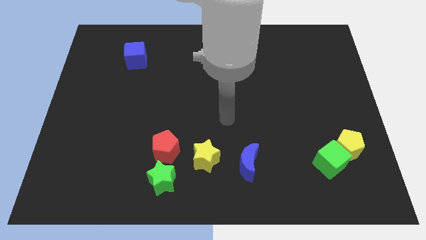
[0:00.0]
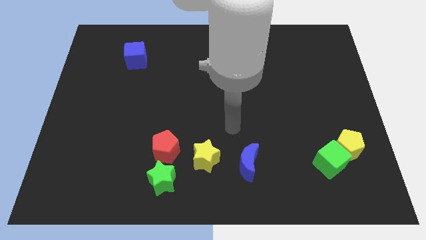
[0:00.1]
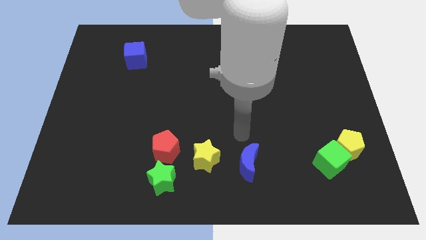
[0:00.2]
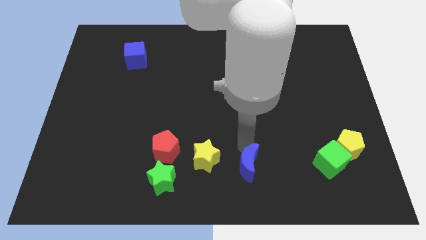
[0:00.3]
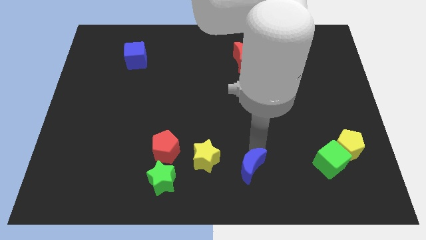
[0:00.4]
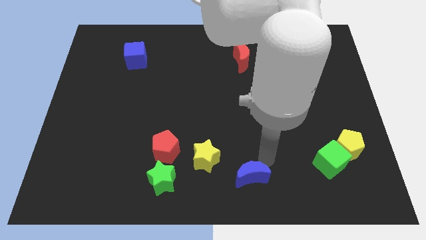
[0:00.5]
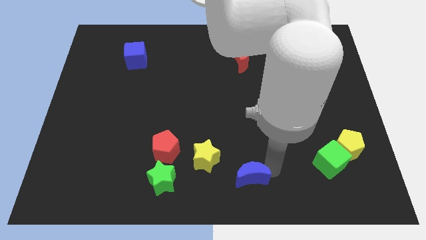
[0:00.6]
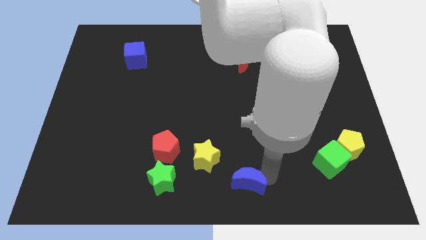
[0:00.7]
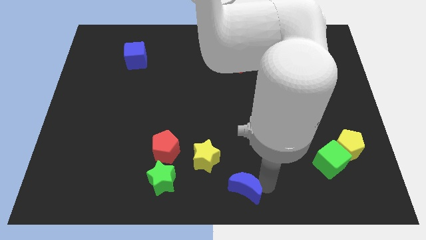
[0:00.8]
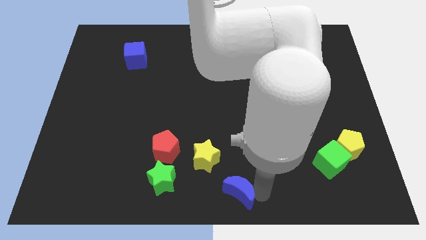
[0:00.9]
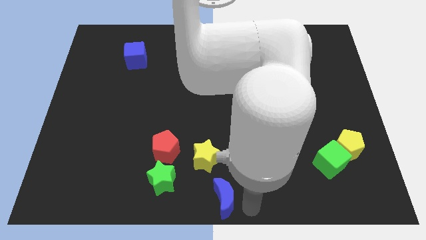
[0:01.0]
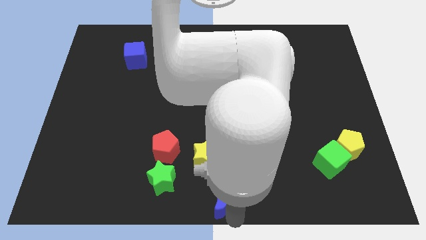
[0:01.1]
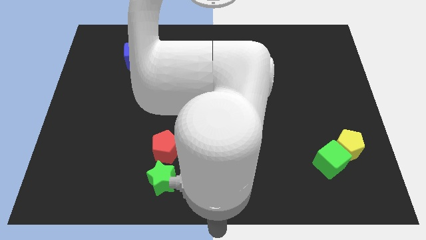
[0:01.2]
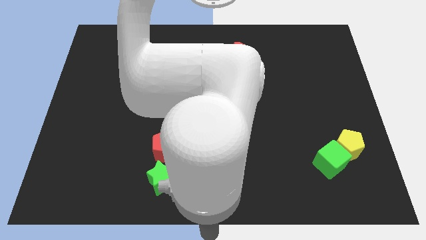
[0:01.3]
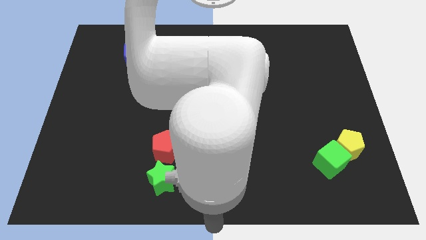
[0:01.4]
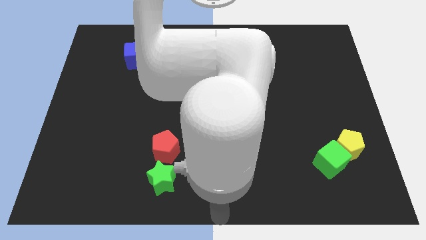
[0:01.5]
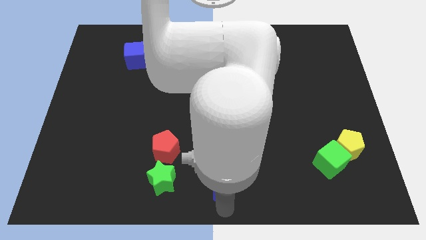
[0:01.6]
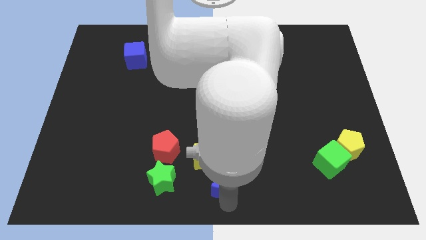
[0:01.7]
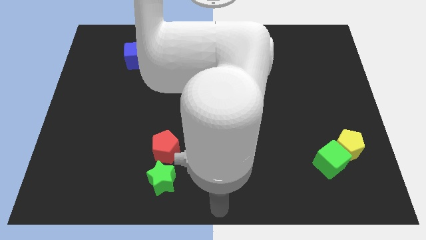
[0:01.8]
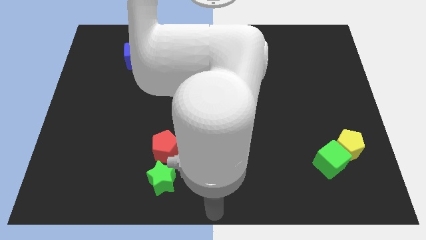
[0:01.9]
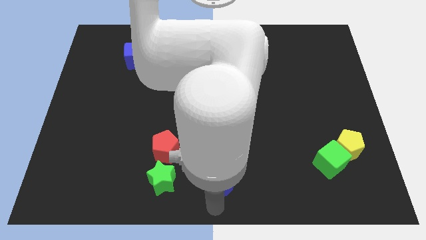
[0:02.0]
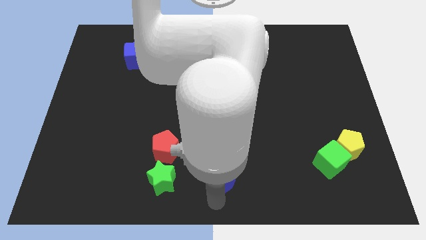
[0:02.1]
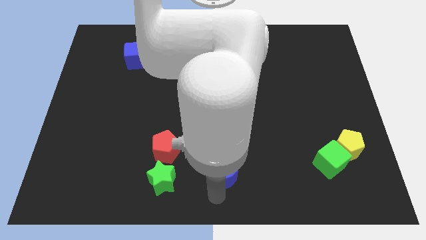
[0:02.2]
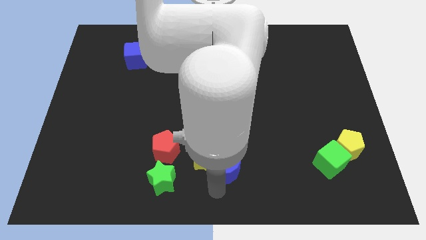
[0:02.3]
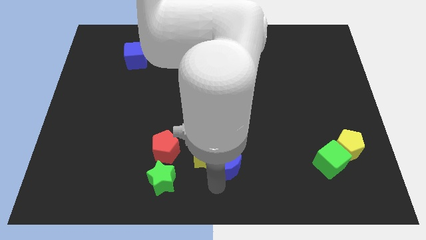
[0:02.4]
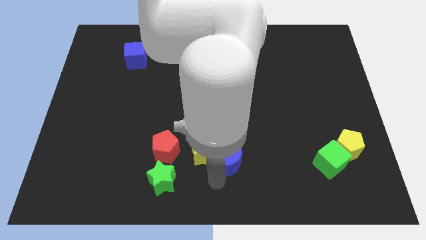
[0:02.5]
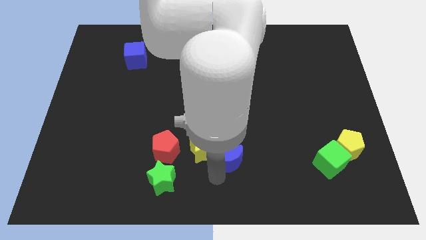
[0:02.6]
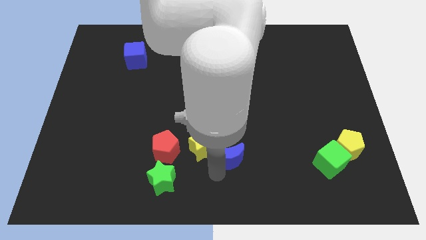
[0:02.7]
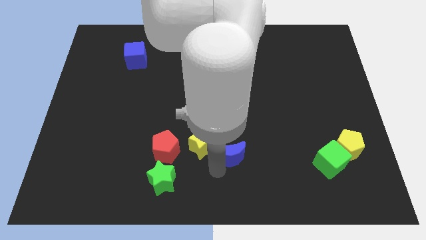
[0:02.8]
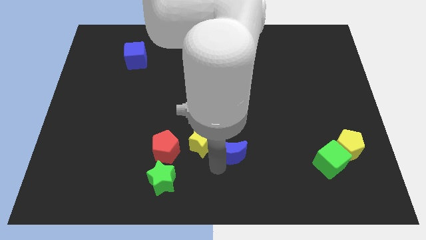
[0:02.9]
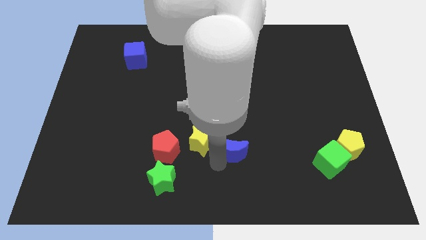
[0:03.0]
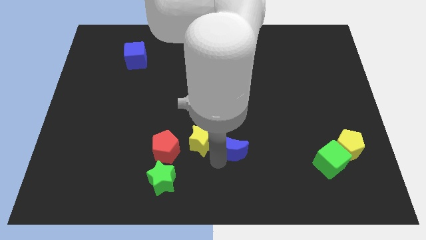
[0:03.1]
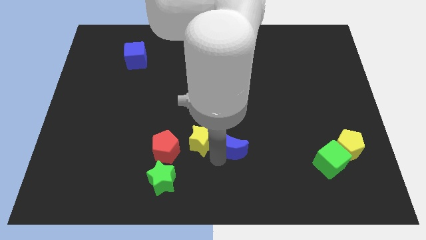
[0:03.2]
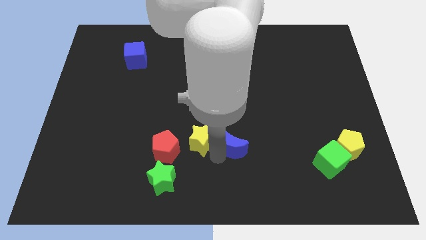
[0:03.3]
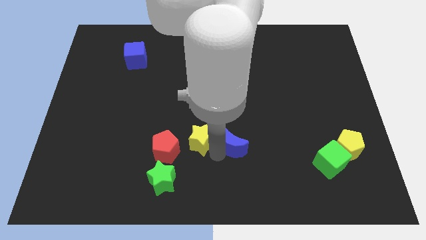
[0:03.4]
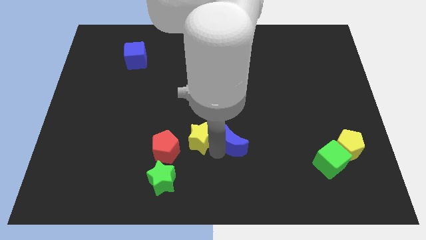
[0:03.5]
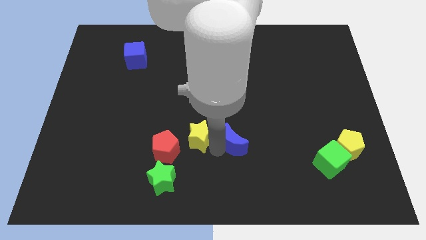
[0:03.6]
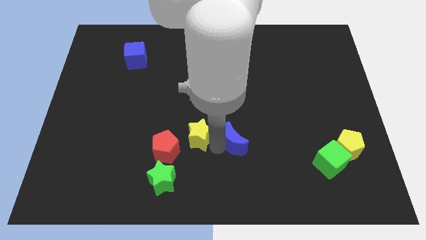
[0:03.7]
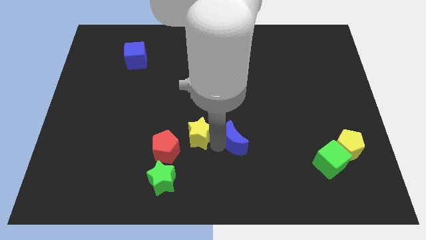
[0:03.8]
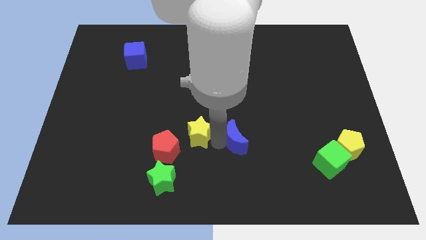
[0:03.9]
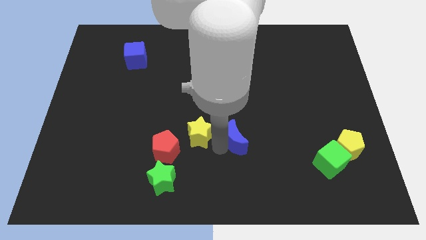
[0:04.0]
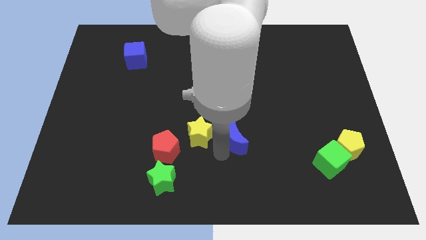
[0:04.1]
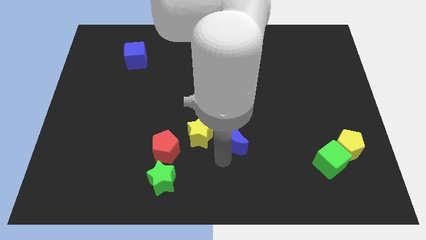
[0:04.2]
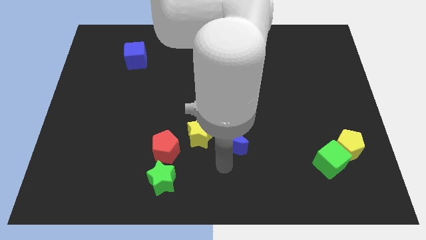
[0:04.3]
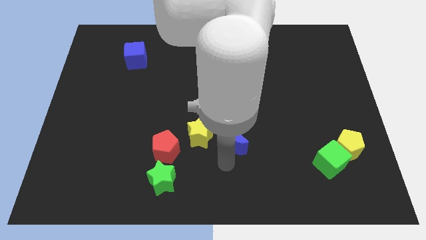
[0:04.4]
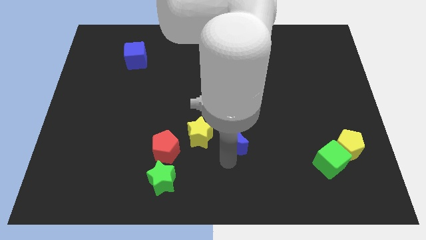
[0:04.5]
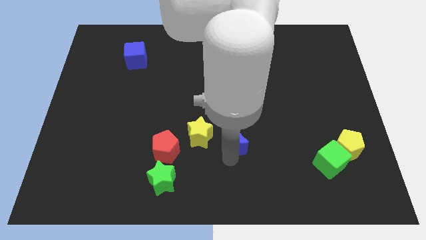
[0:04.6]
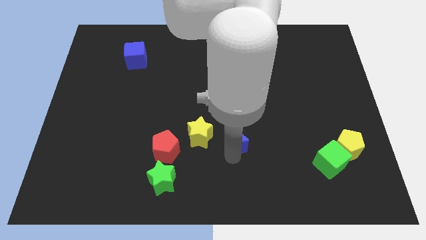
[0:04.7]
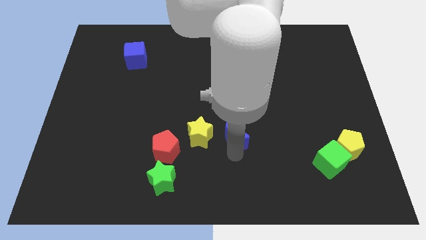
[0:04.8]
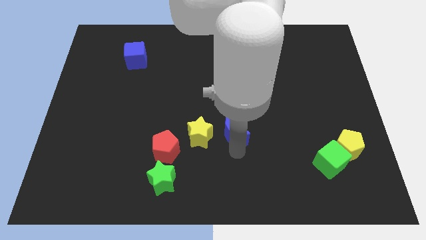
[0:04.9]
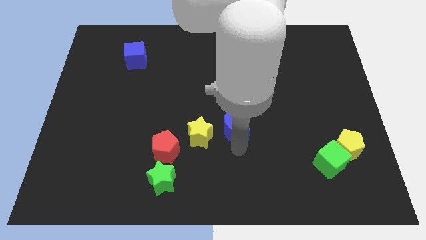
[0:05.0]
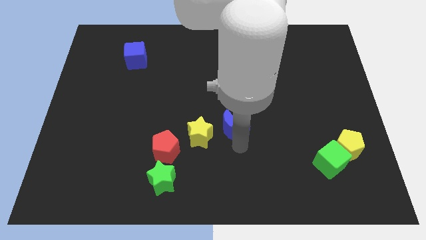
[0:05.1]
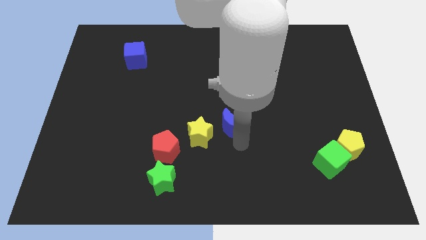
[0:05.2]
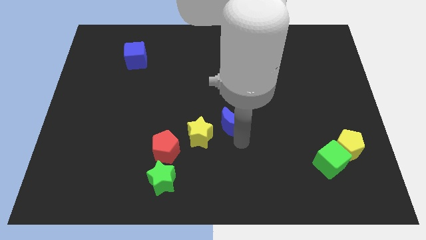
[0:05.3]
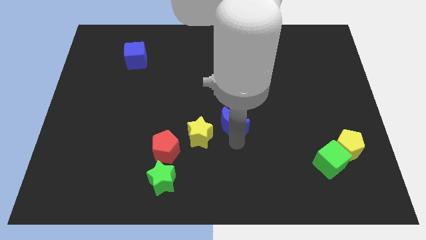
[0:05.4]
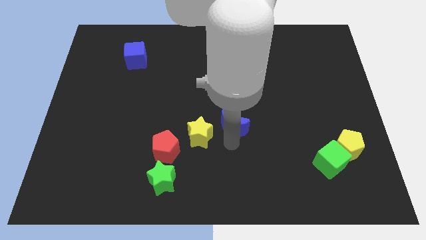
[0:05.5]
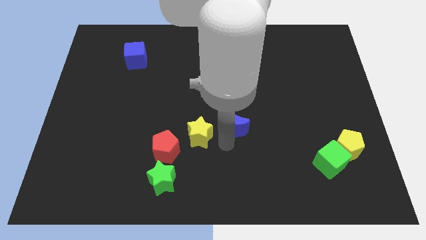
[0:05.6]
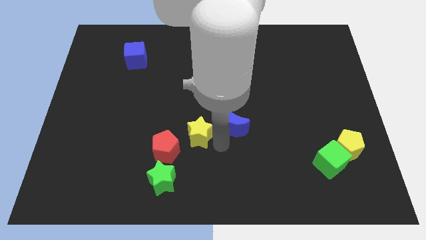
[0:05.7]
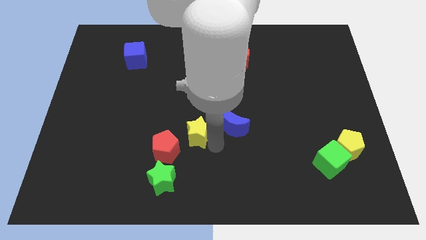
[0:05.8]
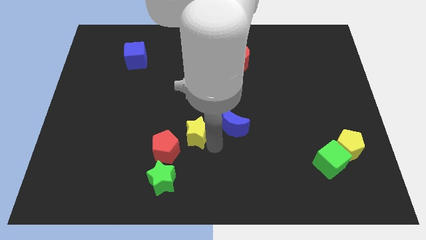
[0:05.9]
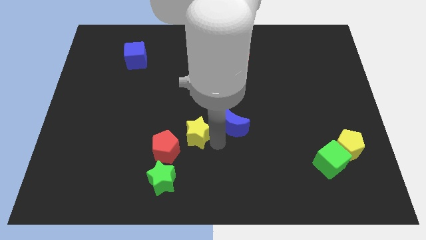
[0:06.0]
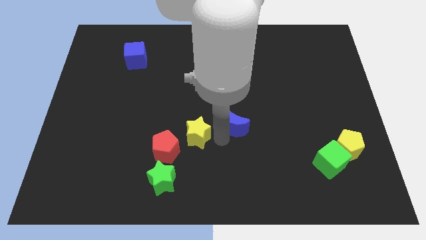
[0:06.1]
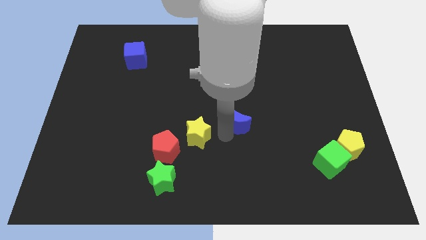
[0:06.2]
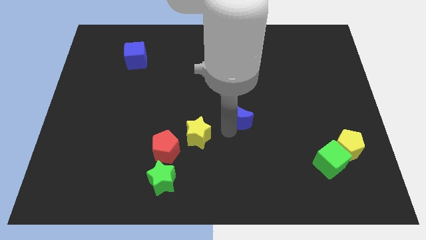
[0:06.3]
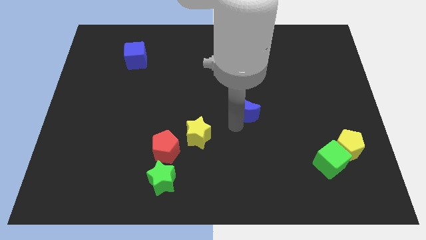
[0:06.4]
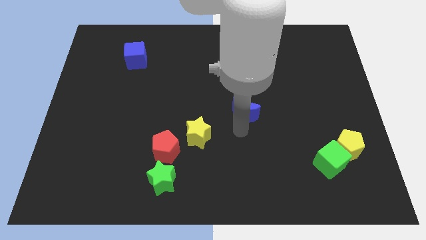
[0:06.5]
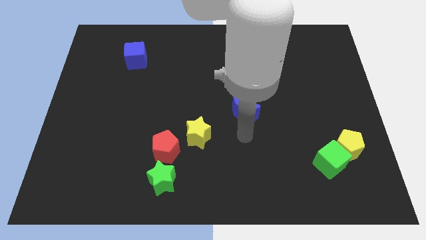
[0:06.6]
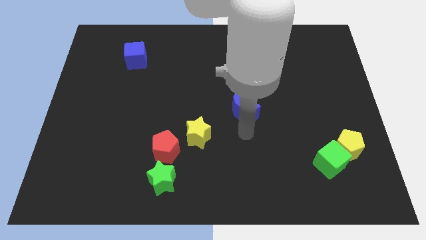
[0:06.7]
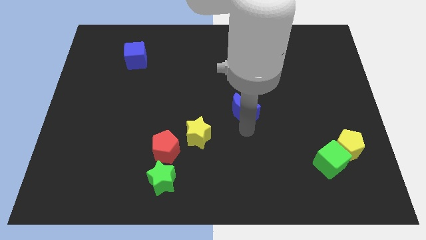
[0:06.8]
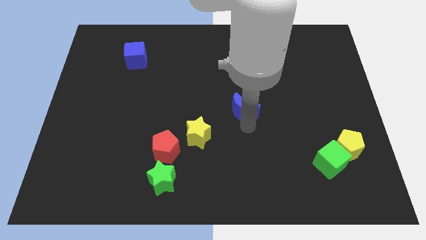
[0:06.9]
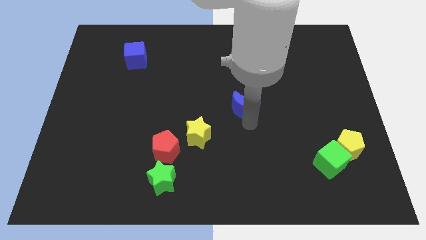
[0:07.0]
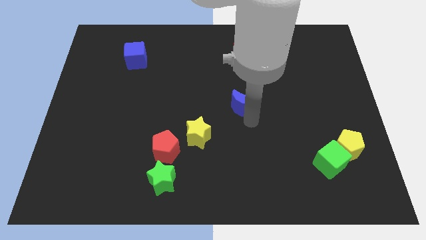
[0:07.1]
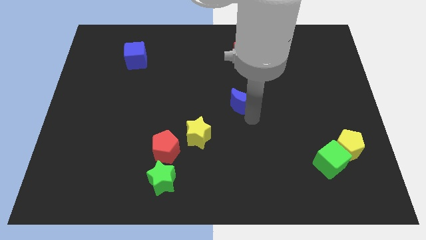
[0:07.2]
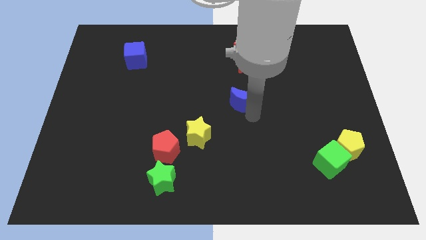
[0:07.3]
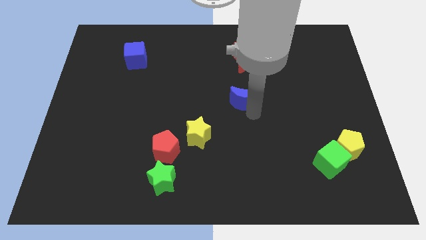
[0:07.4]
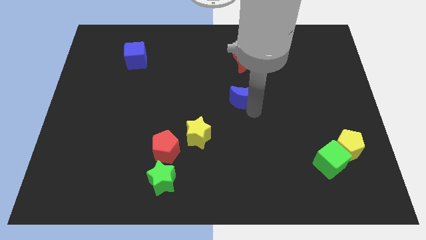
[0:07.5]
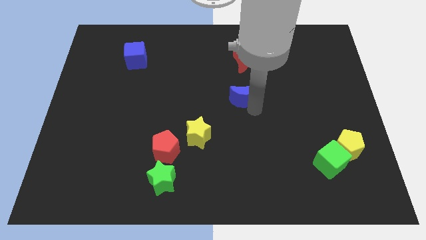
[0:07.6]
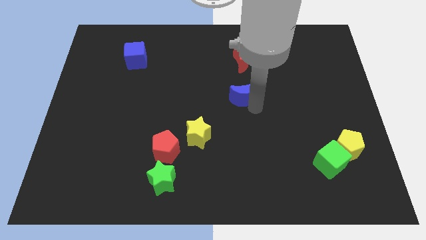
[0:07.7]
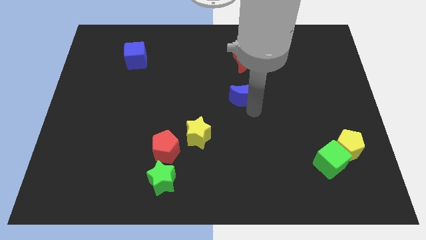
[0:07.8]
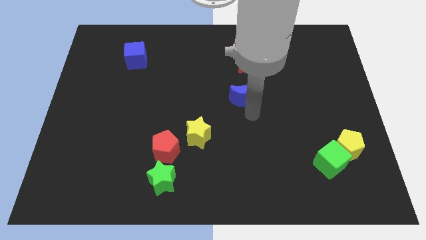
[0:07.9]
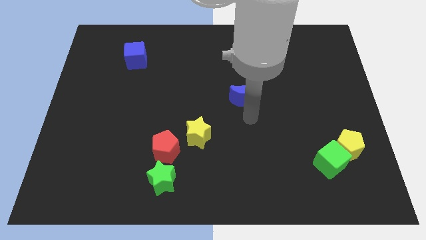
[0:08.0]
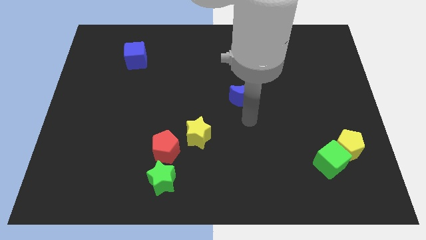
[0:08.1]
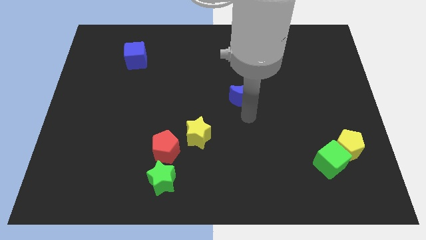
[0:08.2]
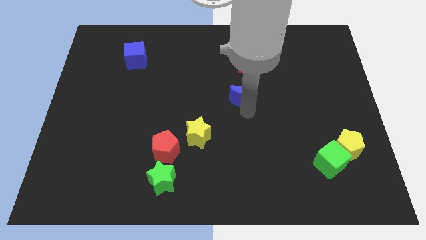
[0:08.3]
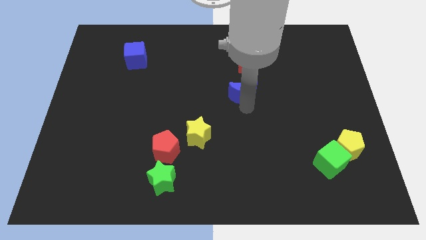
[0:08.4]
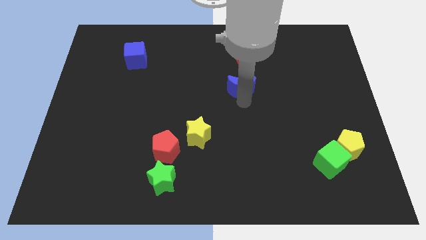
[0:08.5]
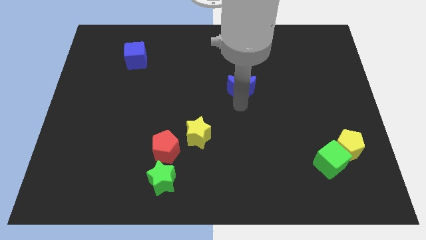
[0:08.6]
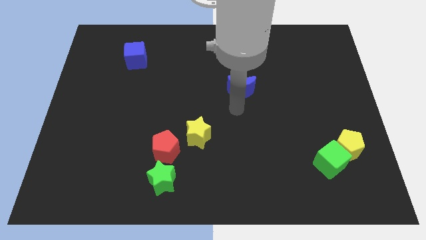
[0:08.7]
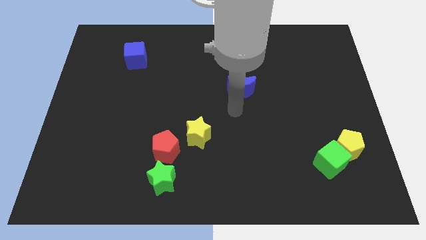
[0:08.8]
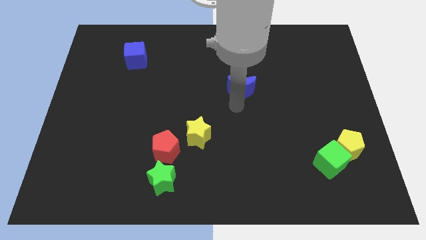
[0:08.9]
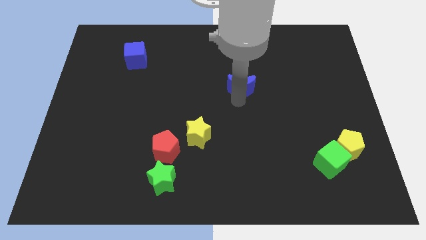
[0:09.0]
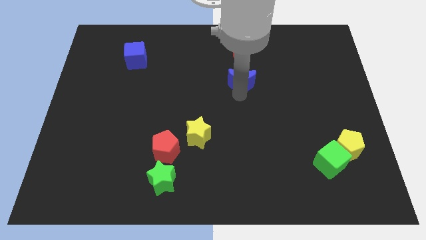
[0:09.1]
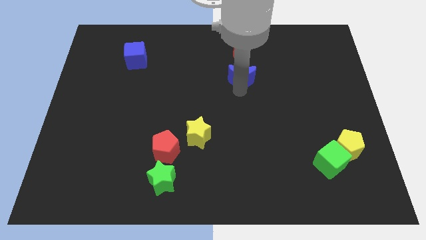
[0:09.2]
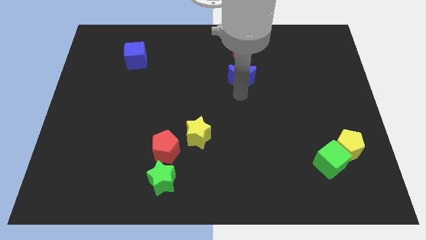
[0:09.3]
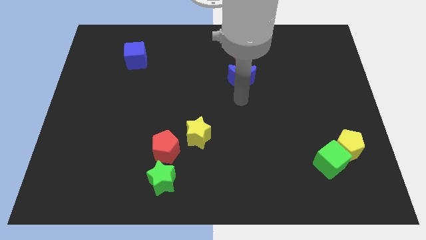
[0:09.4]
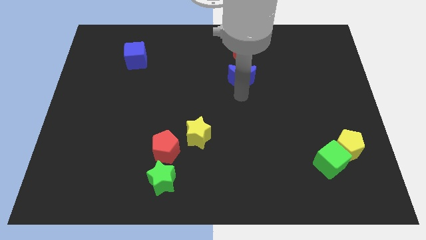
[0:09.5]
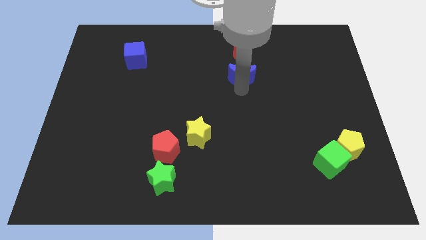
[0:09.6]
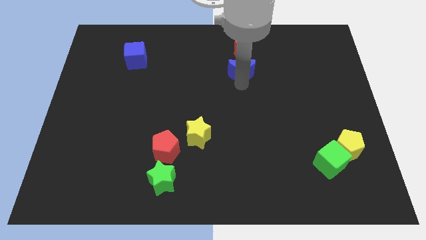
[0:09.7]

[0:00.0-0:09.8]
move the blue moon next to the red moon
